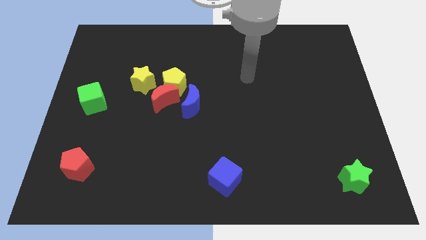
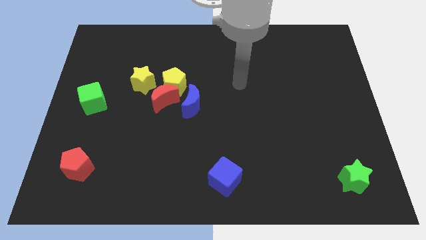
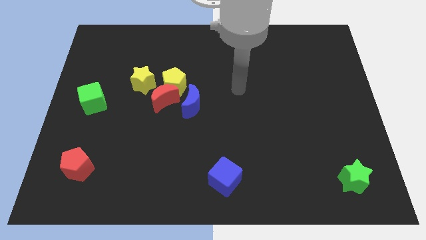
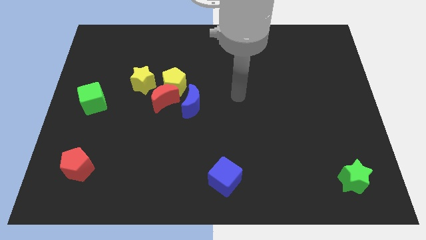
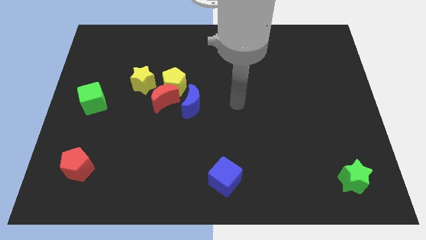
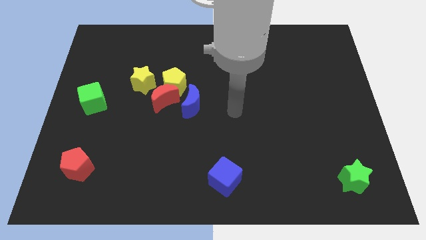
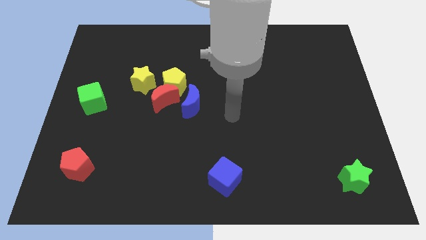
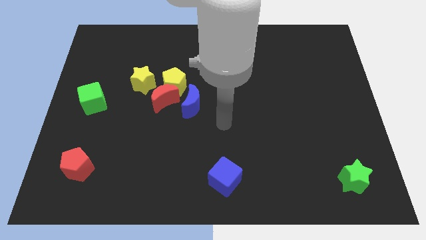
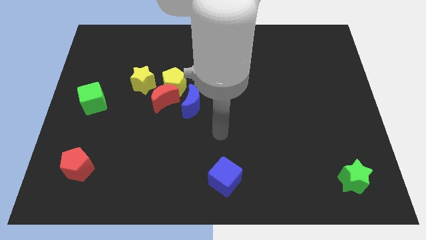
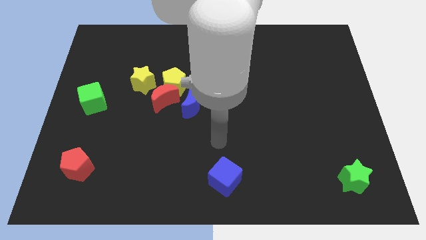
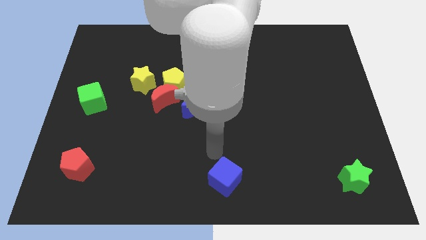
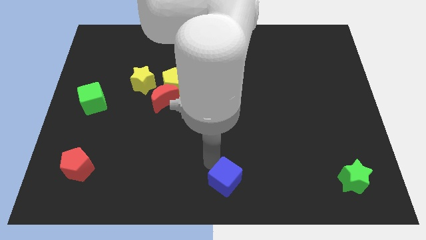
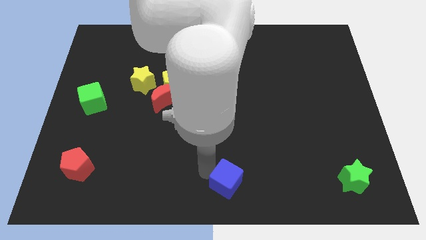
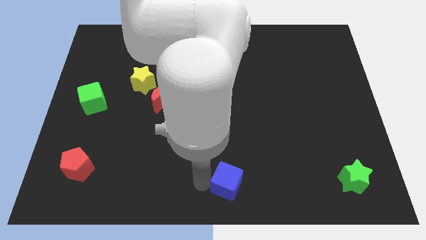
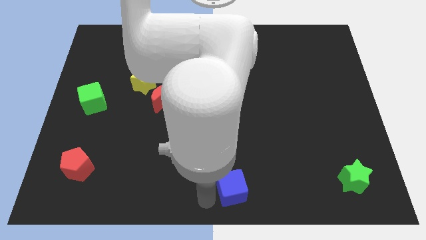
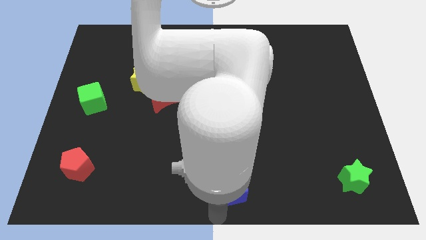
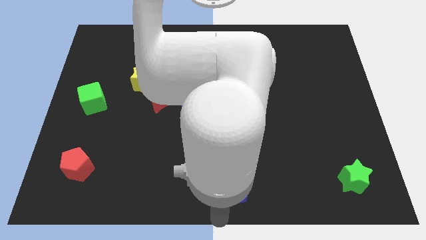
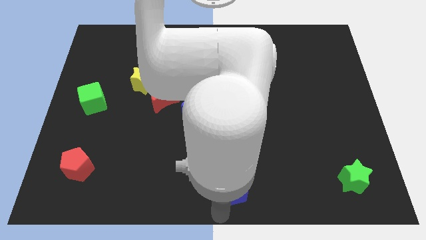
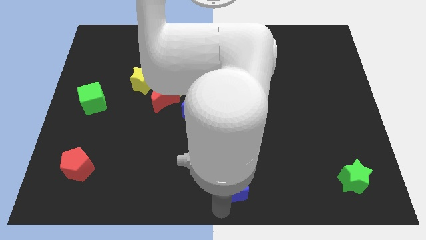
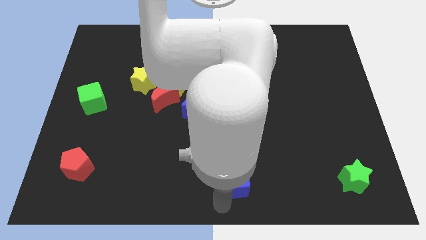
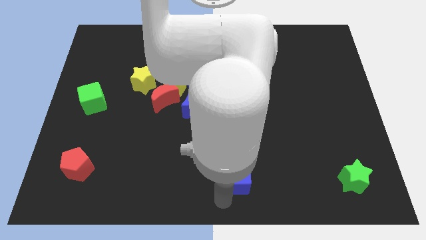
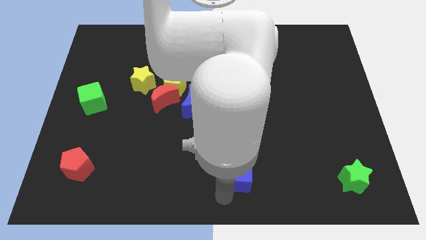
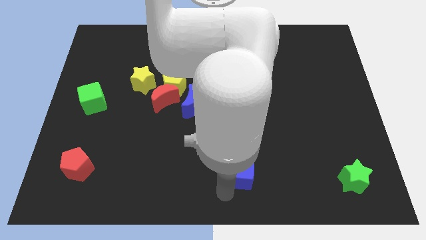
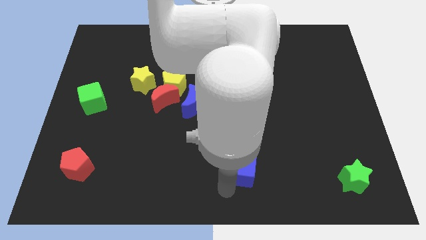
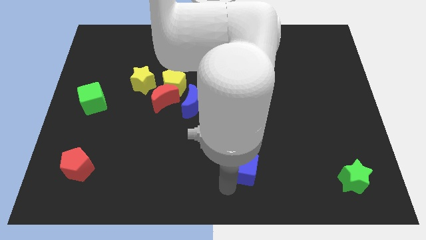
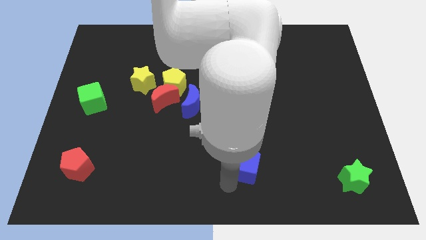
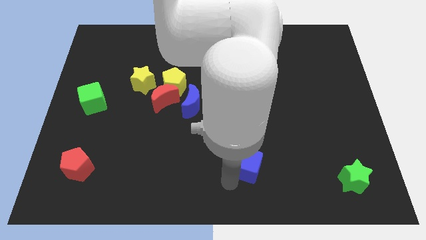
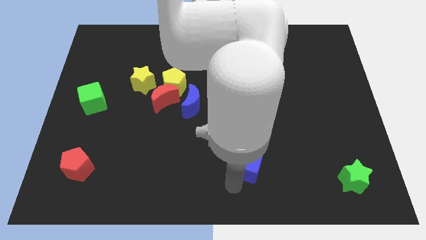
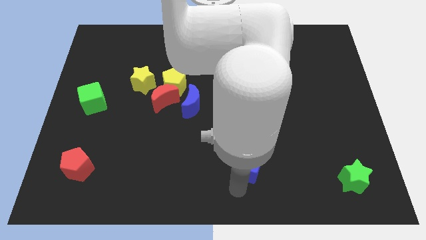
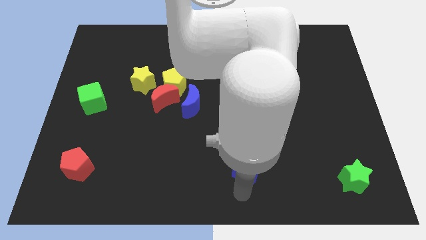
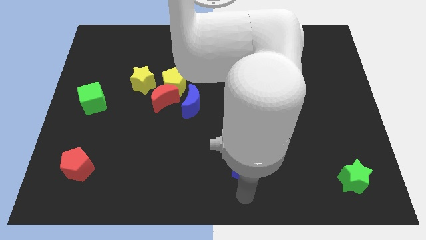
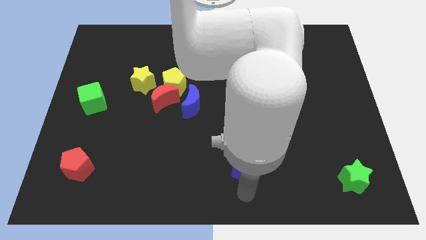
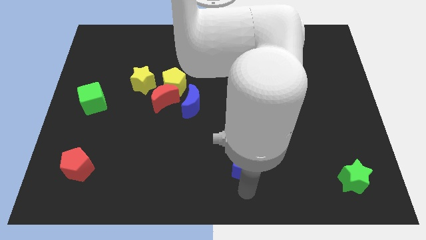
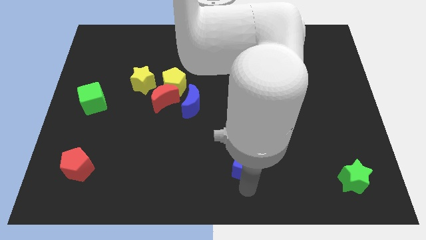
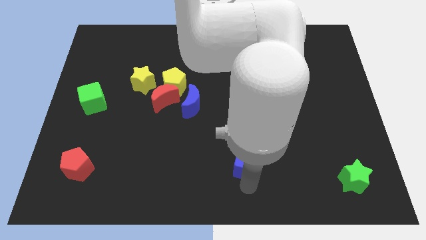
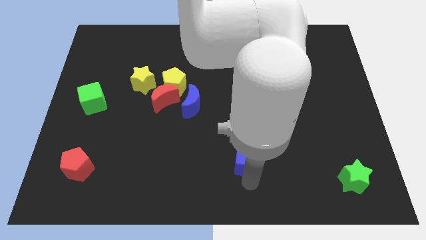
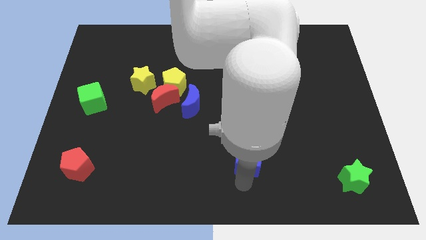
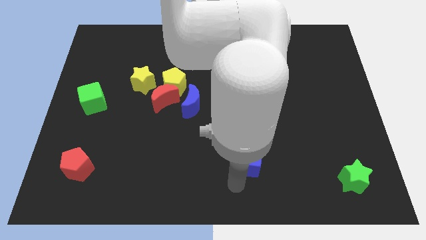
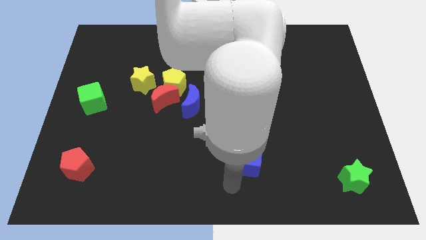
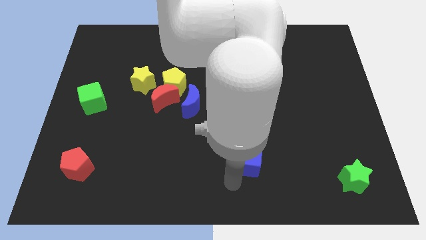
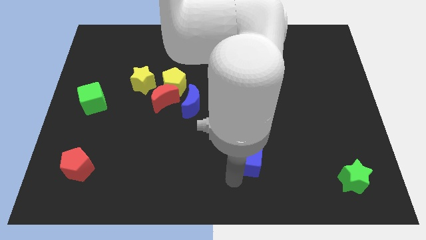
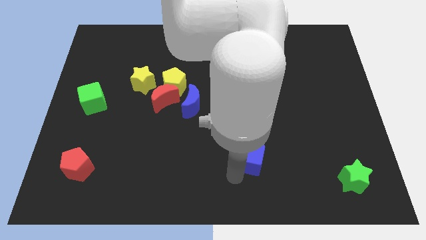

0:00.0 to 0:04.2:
push the blue cube a little bit upwards and to the right diagonally

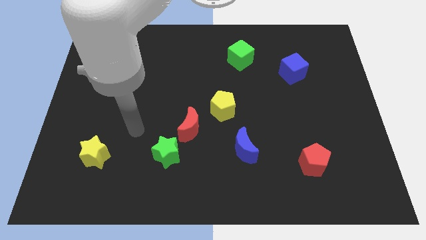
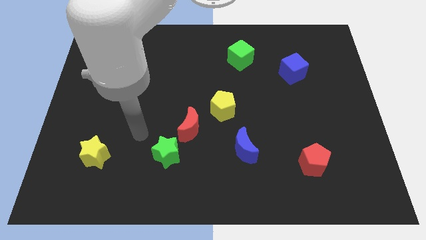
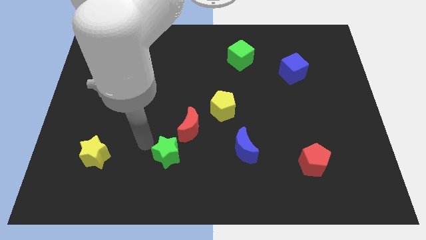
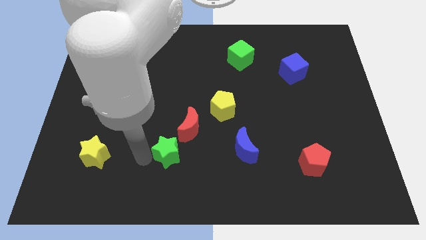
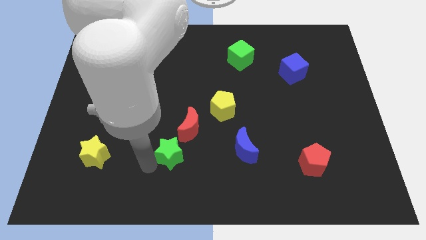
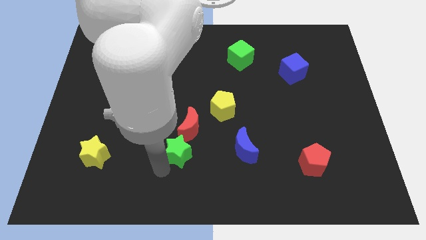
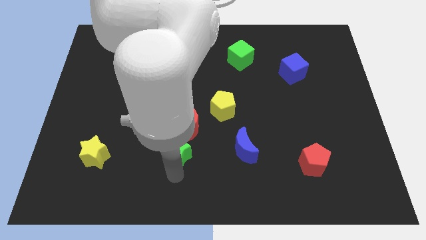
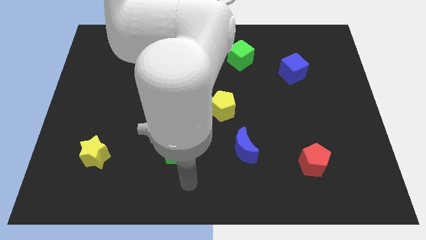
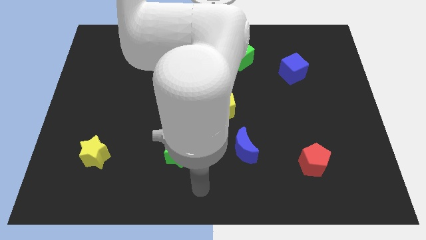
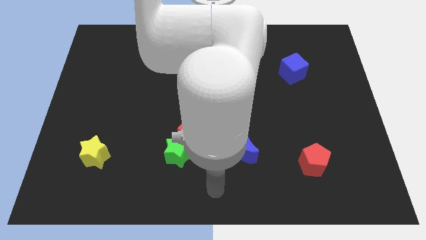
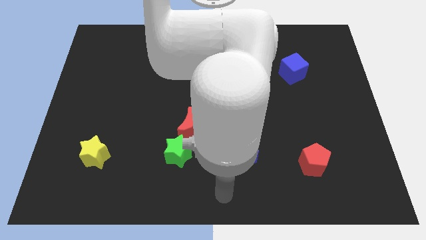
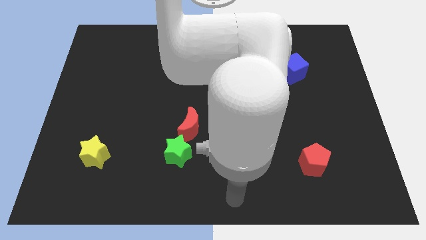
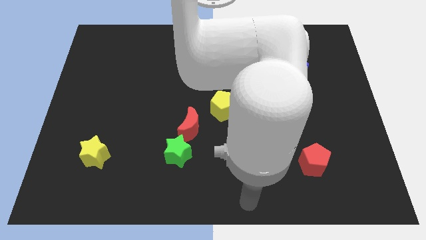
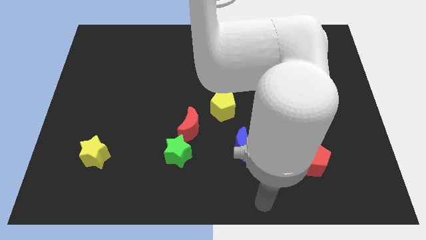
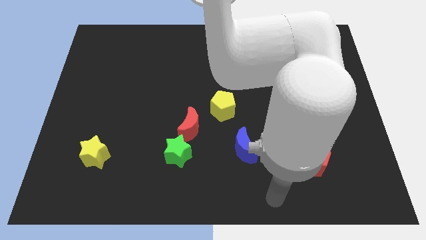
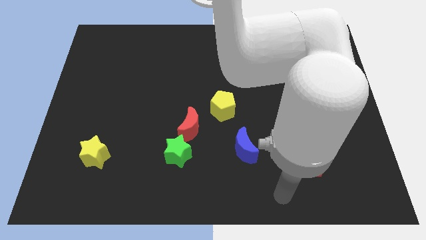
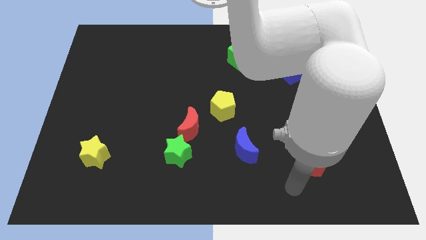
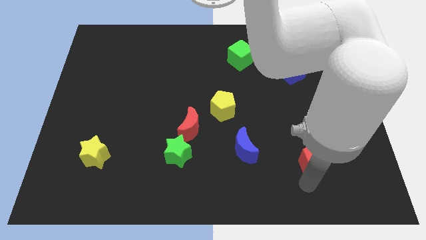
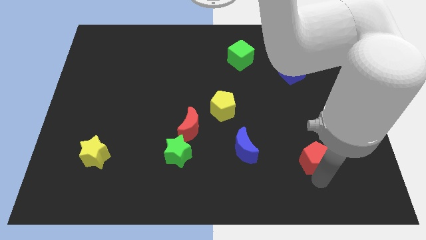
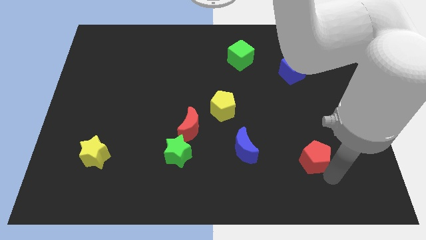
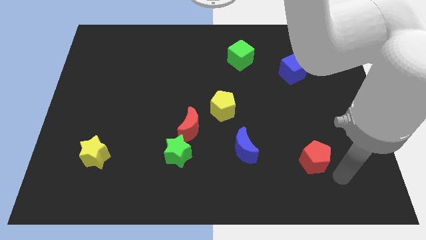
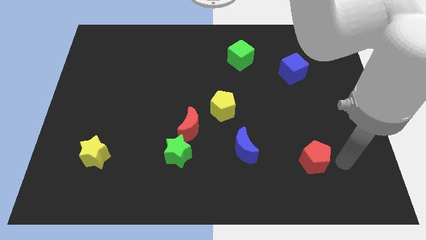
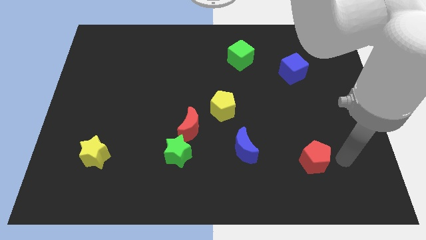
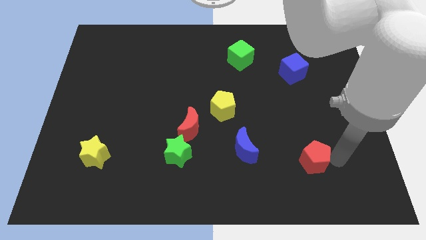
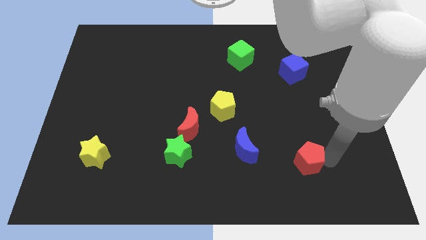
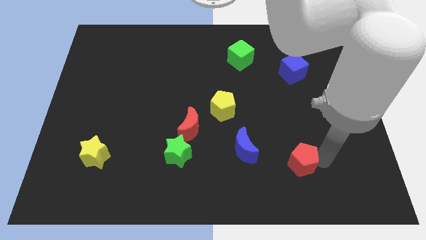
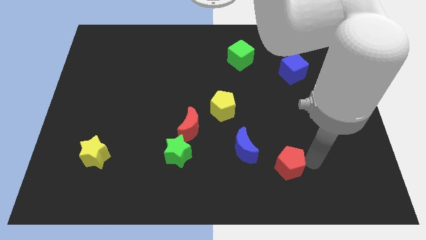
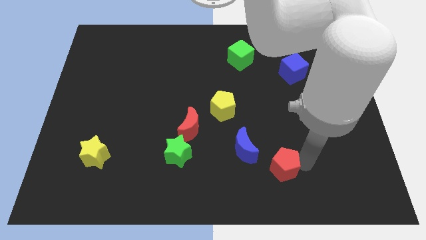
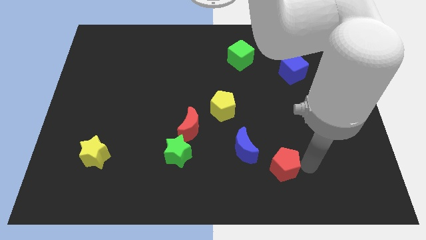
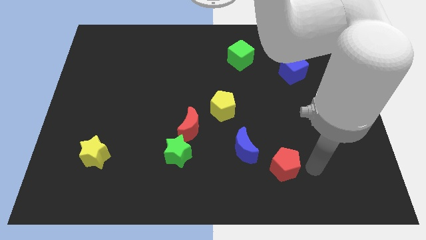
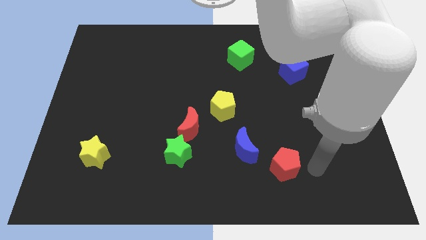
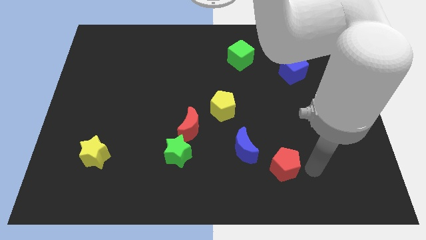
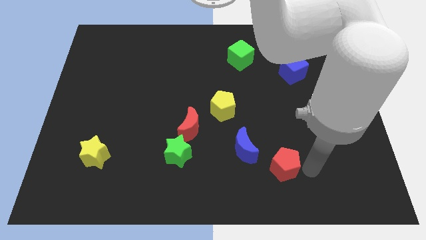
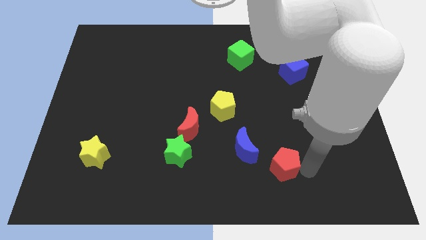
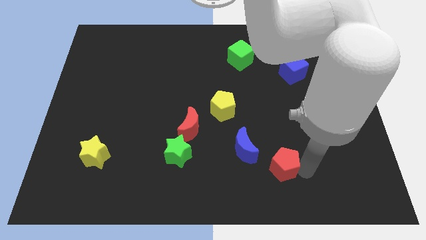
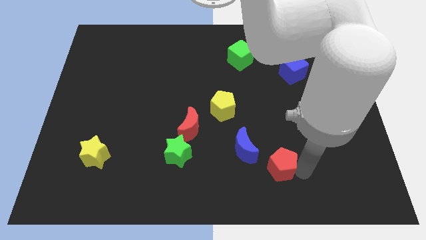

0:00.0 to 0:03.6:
slightly push the red pentagon left
